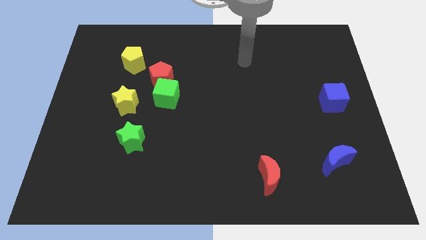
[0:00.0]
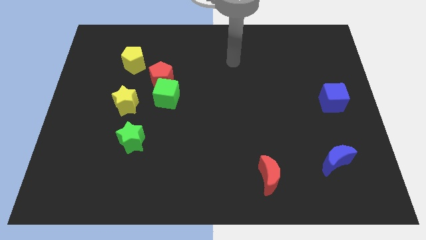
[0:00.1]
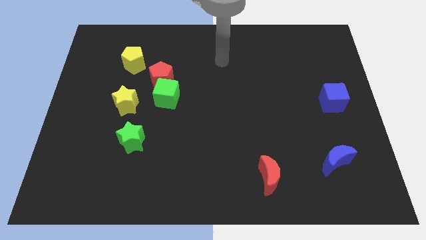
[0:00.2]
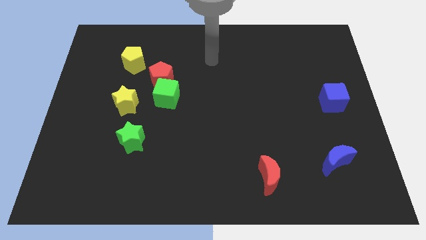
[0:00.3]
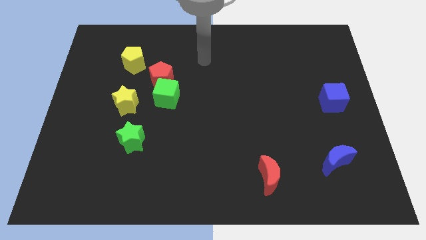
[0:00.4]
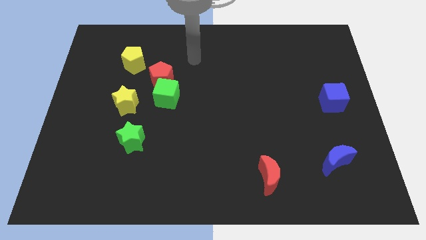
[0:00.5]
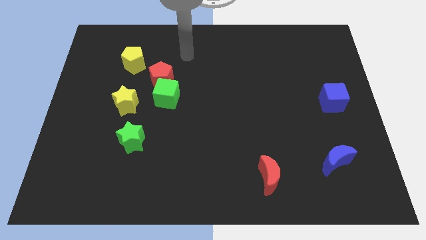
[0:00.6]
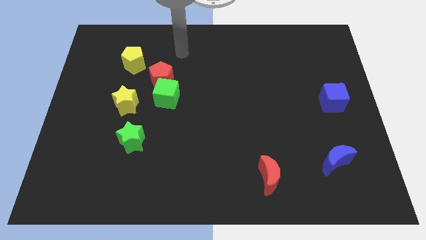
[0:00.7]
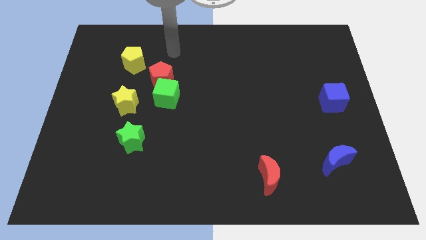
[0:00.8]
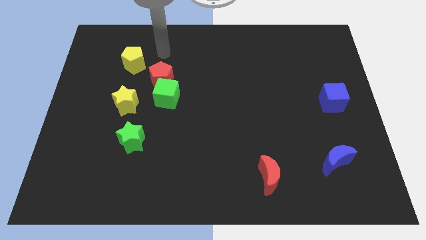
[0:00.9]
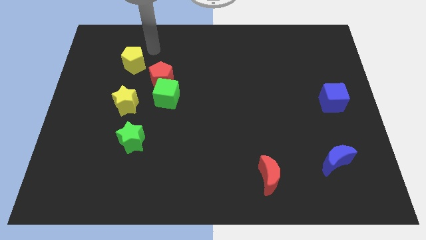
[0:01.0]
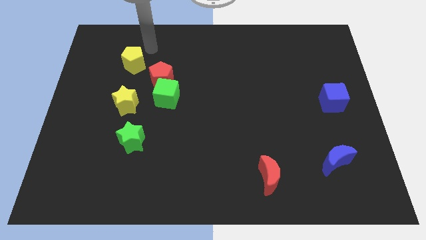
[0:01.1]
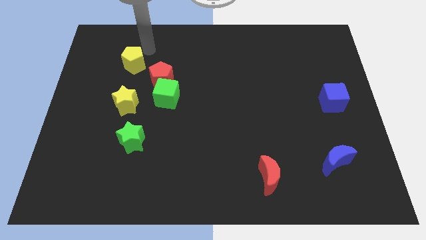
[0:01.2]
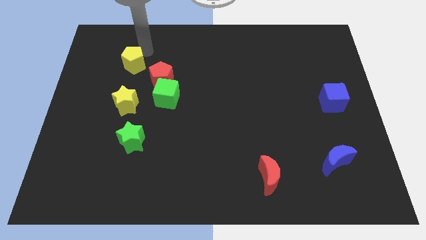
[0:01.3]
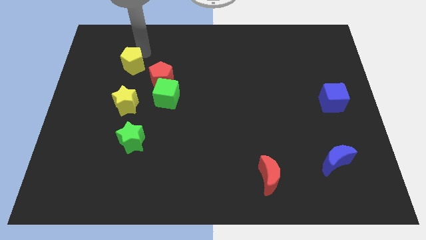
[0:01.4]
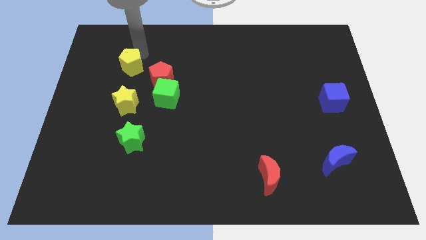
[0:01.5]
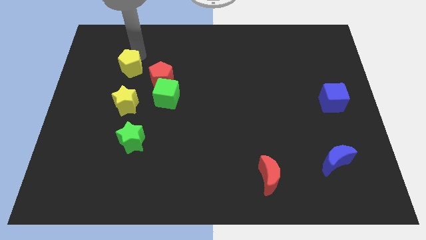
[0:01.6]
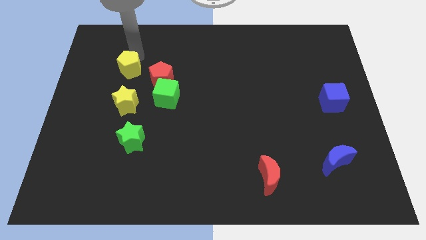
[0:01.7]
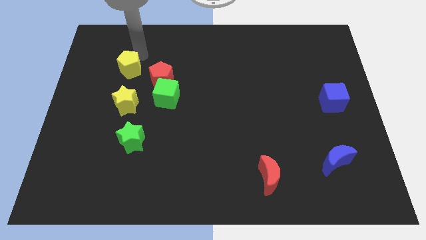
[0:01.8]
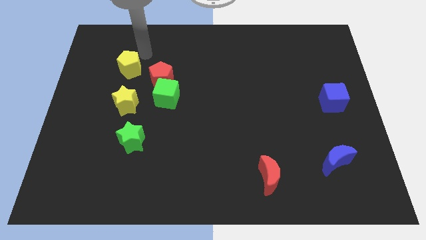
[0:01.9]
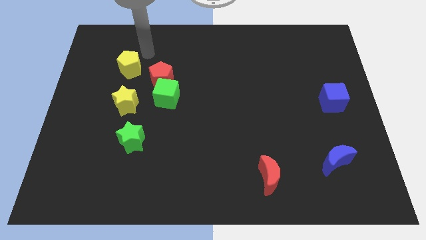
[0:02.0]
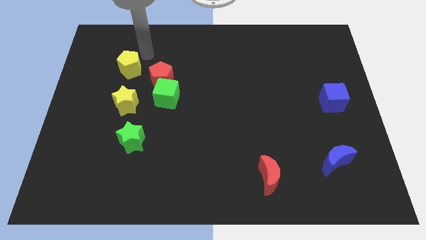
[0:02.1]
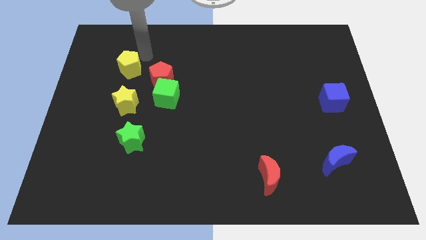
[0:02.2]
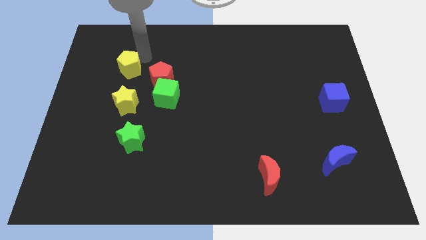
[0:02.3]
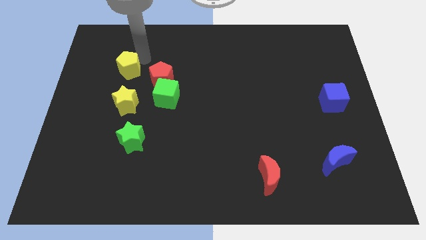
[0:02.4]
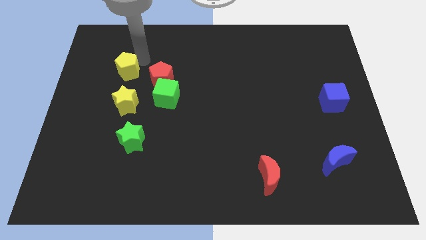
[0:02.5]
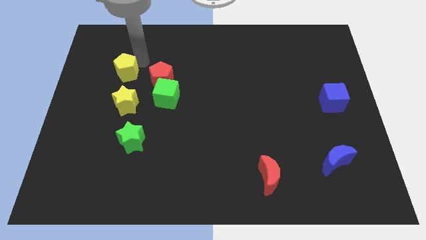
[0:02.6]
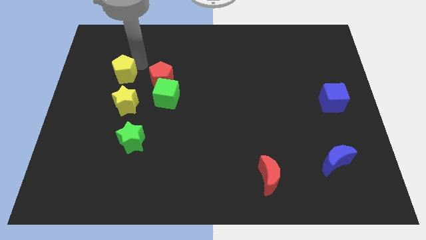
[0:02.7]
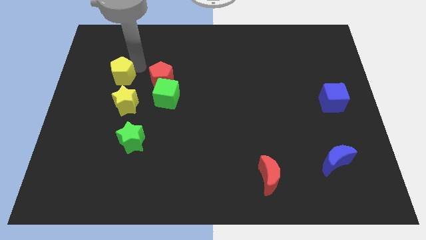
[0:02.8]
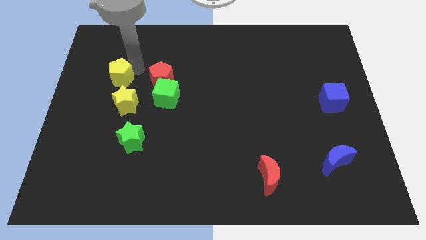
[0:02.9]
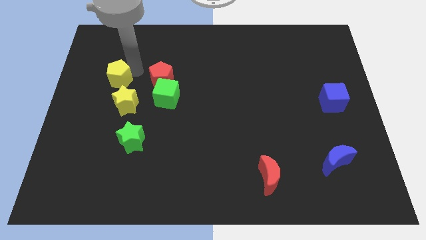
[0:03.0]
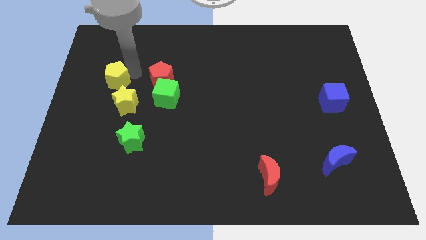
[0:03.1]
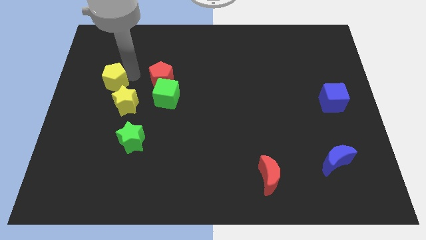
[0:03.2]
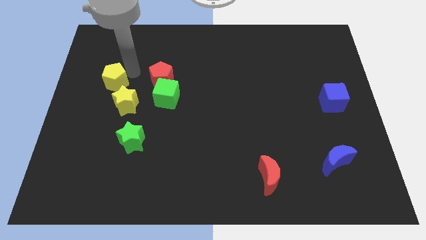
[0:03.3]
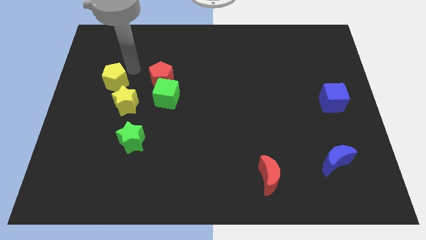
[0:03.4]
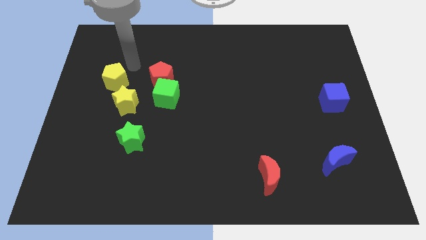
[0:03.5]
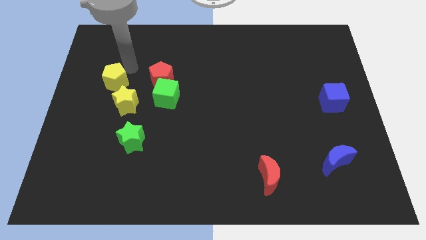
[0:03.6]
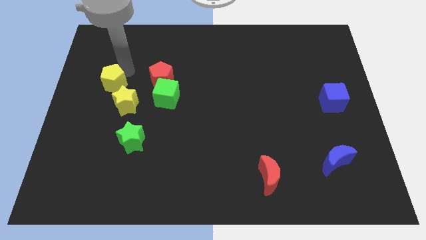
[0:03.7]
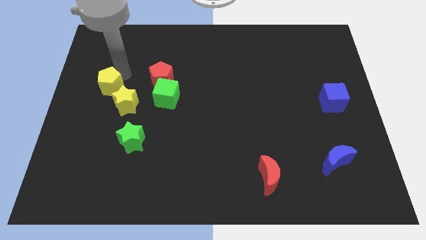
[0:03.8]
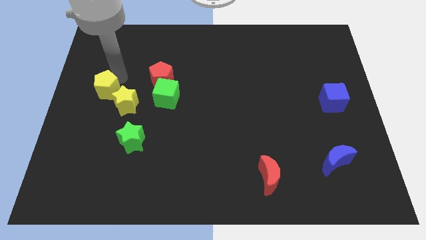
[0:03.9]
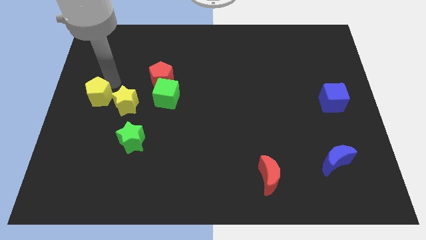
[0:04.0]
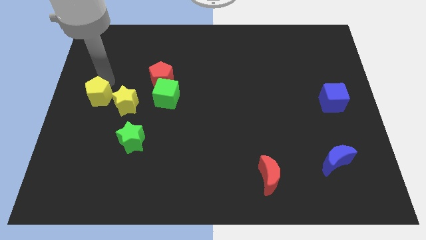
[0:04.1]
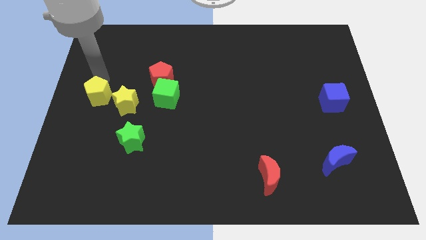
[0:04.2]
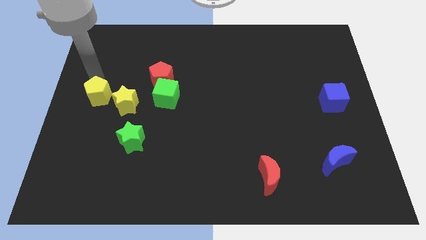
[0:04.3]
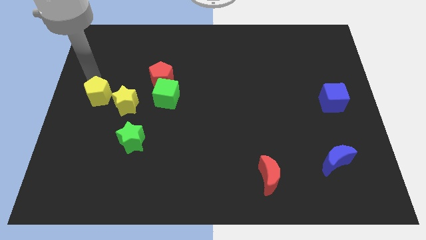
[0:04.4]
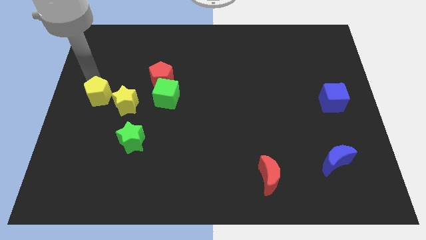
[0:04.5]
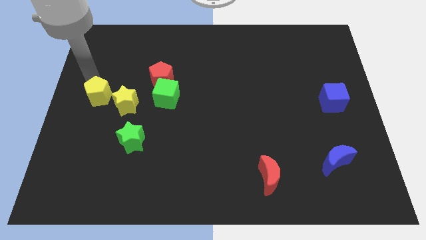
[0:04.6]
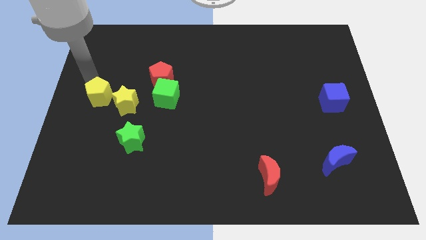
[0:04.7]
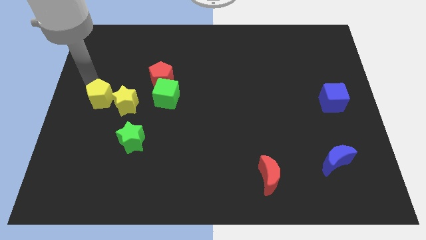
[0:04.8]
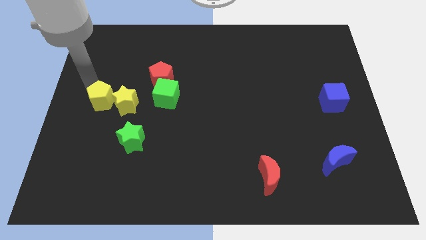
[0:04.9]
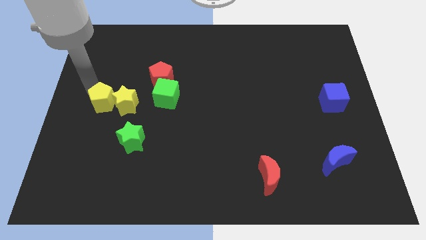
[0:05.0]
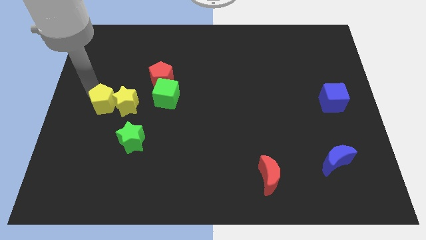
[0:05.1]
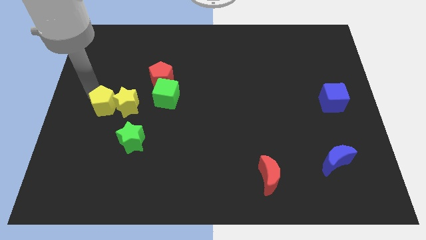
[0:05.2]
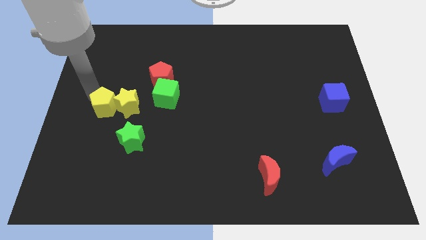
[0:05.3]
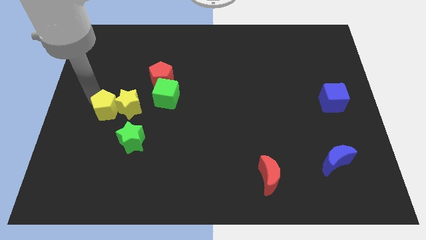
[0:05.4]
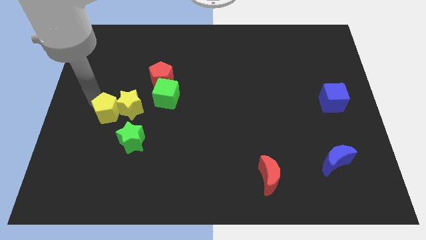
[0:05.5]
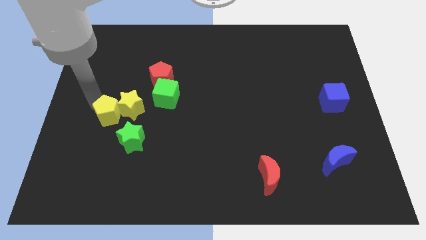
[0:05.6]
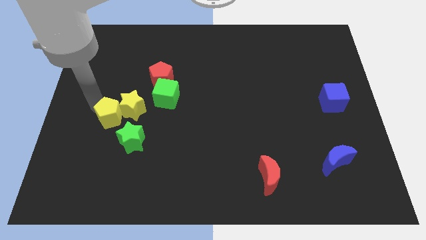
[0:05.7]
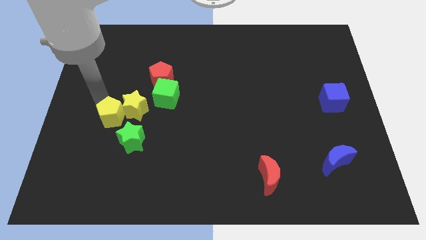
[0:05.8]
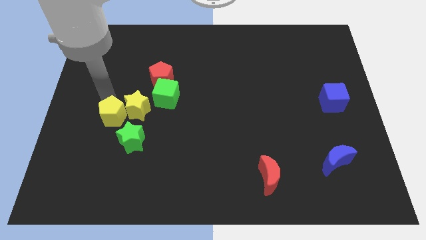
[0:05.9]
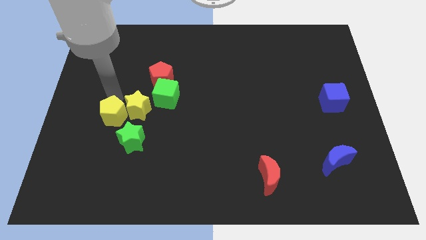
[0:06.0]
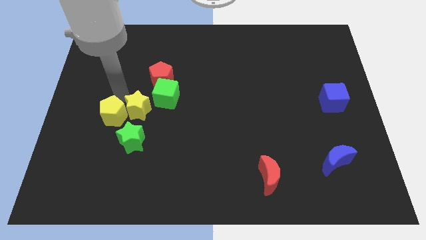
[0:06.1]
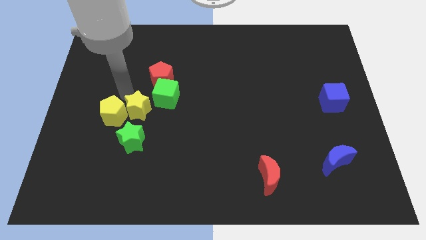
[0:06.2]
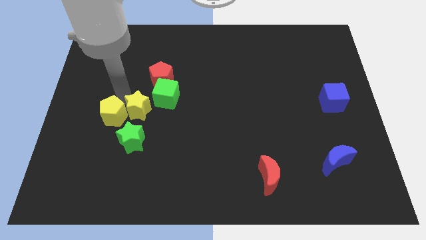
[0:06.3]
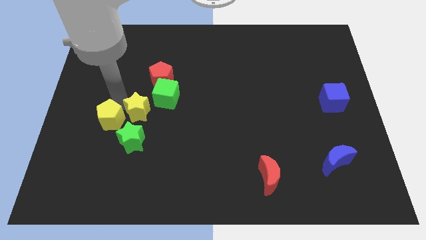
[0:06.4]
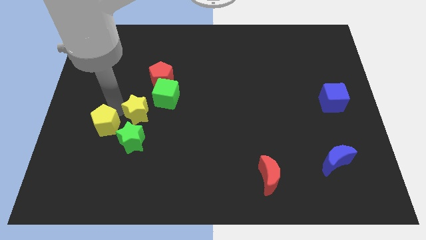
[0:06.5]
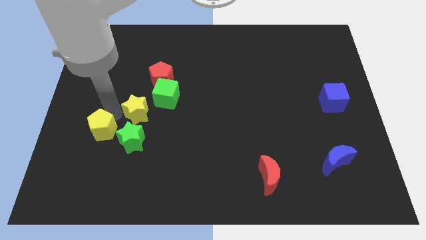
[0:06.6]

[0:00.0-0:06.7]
push the yellow pentagon downwards

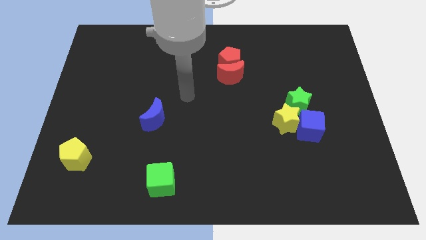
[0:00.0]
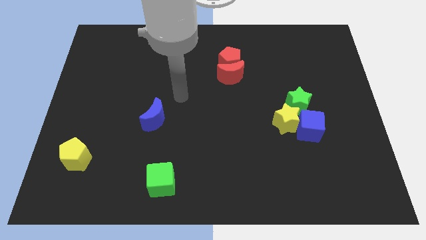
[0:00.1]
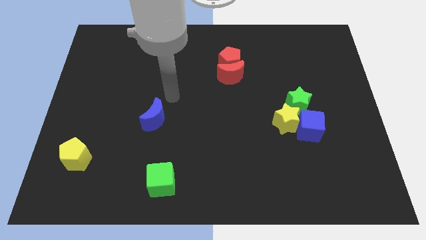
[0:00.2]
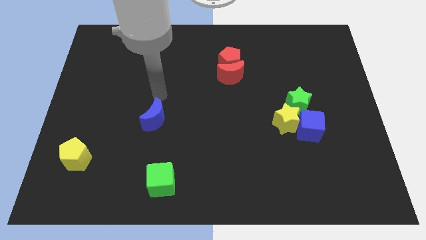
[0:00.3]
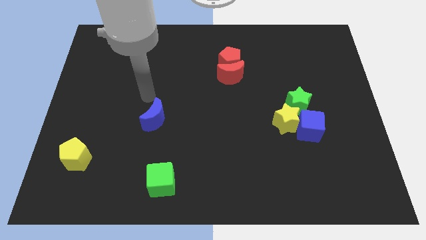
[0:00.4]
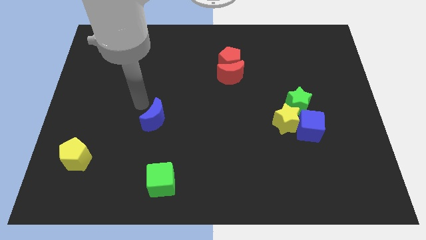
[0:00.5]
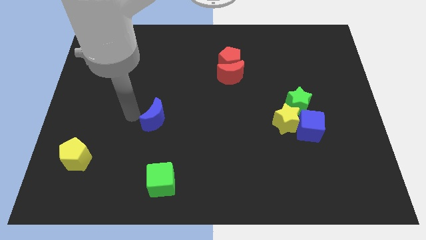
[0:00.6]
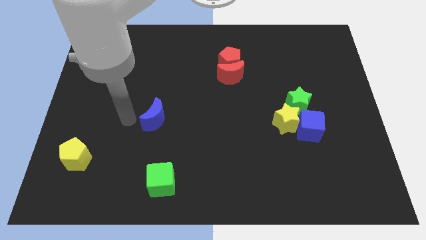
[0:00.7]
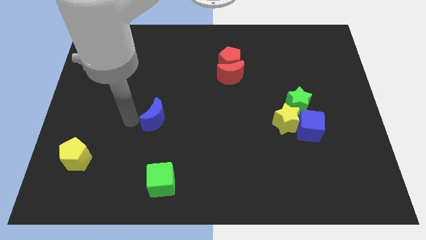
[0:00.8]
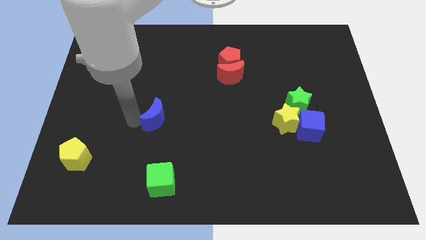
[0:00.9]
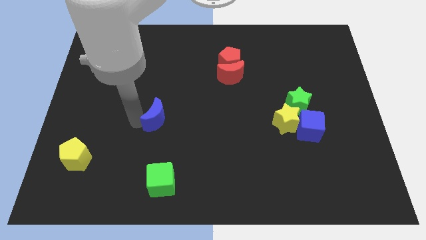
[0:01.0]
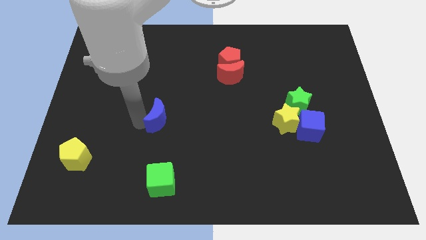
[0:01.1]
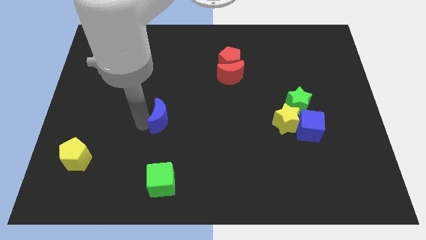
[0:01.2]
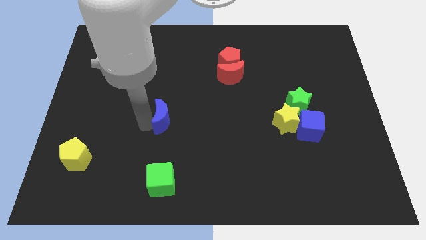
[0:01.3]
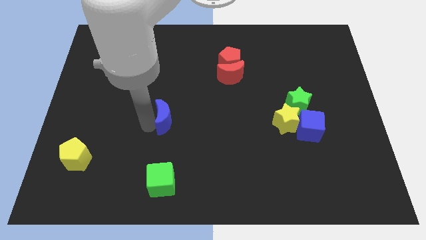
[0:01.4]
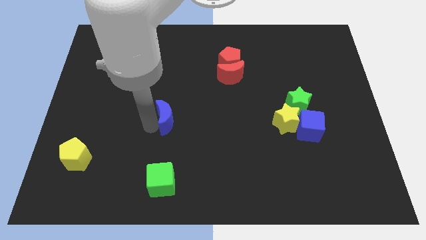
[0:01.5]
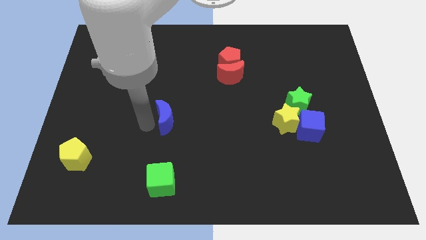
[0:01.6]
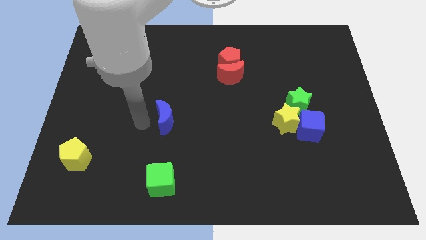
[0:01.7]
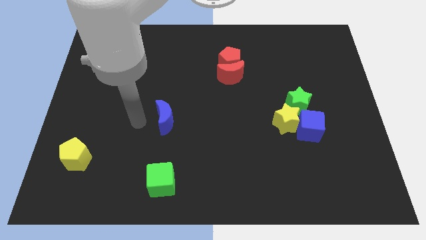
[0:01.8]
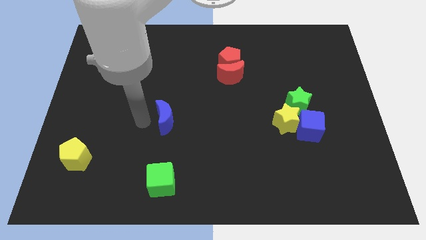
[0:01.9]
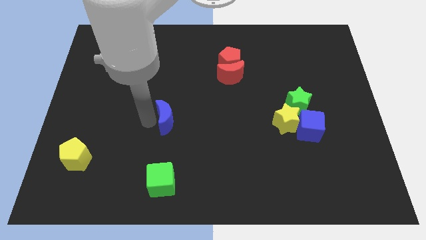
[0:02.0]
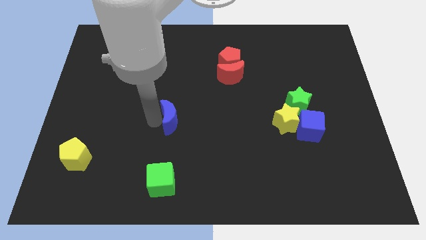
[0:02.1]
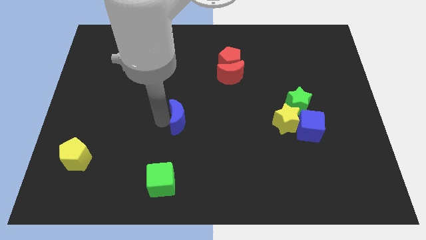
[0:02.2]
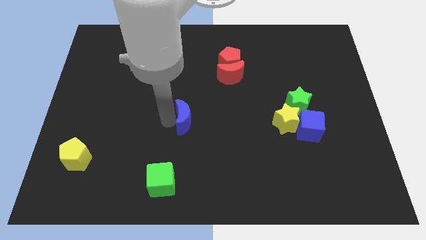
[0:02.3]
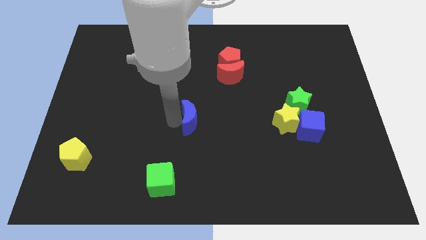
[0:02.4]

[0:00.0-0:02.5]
slide the blue moon slightly right
